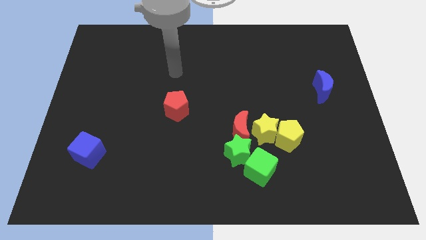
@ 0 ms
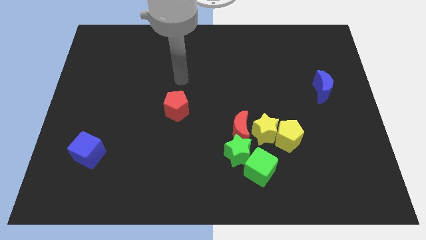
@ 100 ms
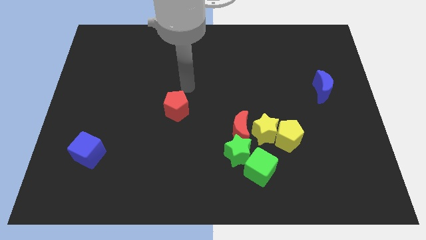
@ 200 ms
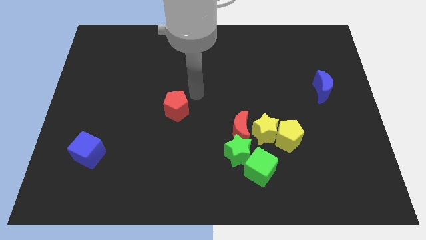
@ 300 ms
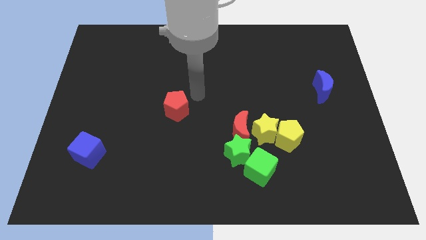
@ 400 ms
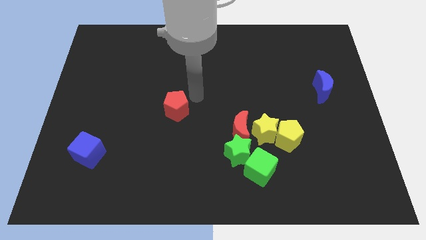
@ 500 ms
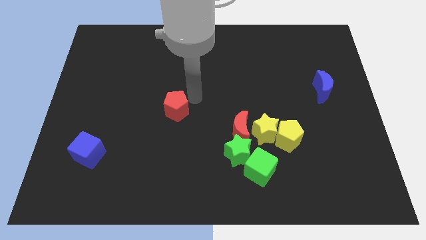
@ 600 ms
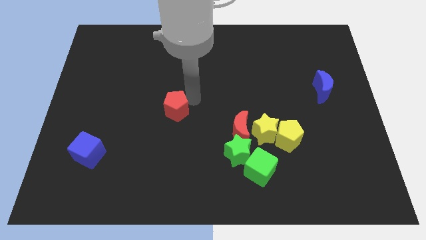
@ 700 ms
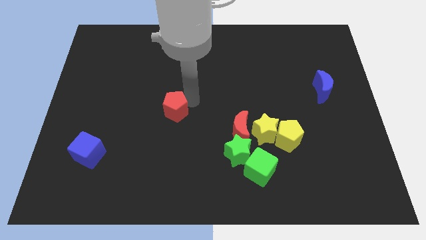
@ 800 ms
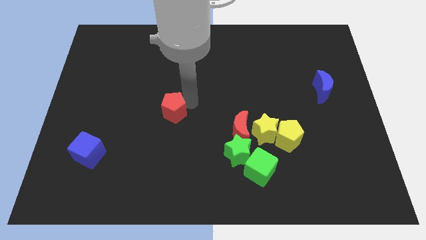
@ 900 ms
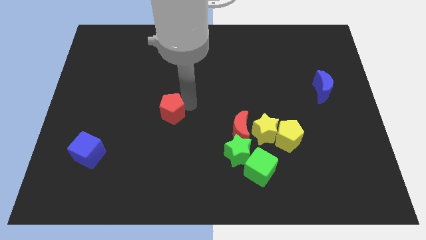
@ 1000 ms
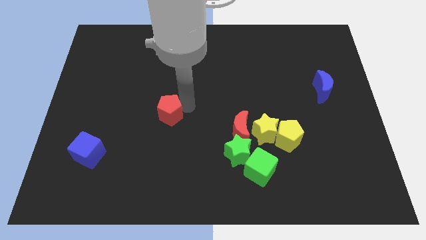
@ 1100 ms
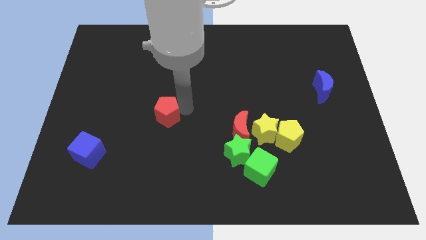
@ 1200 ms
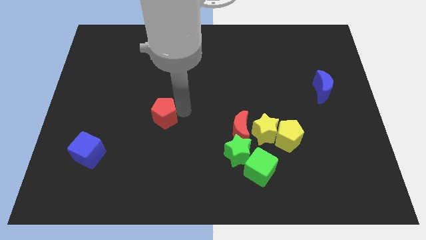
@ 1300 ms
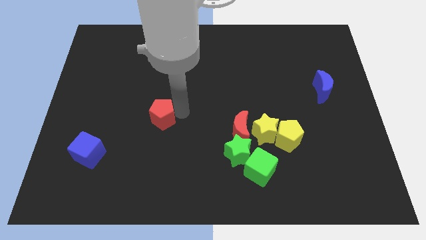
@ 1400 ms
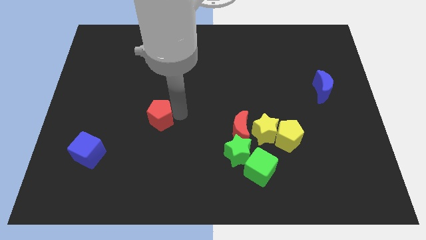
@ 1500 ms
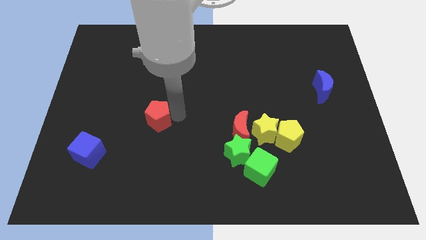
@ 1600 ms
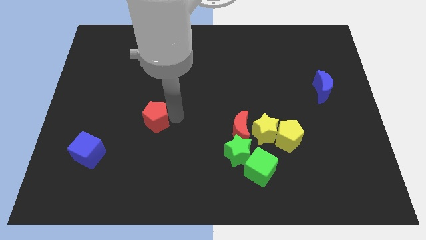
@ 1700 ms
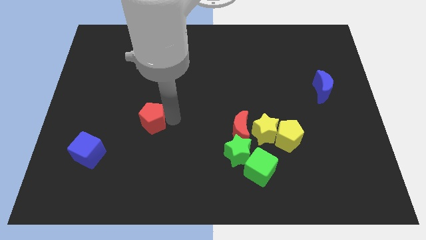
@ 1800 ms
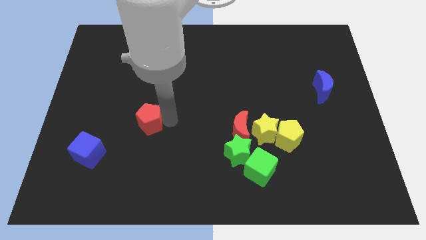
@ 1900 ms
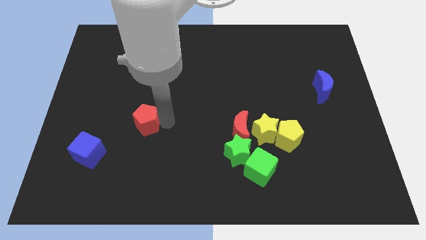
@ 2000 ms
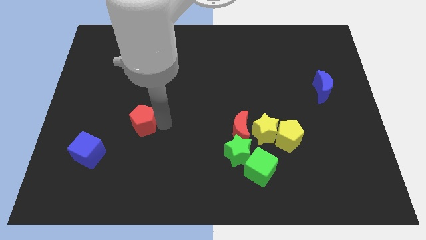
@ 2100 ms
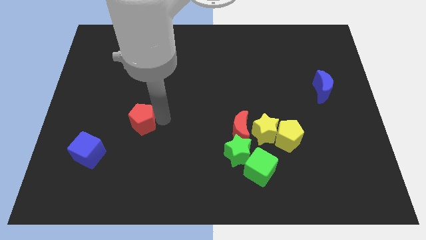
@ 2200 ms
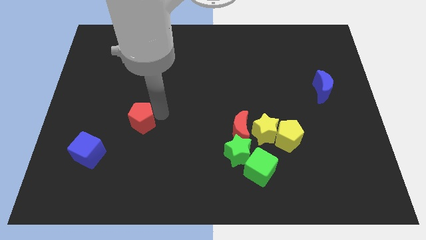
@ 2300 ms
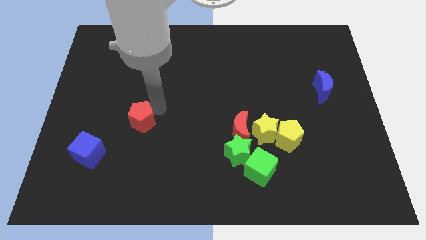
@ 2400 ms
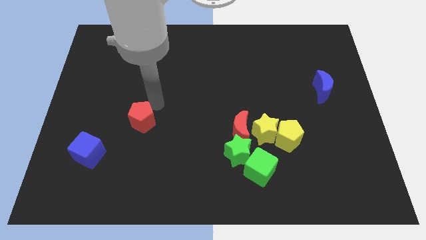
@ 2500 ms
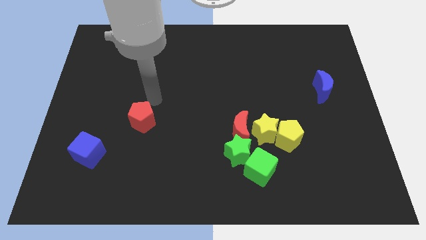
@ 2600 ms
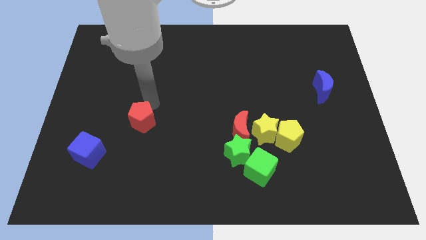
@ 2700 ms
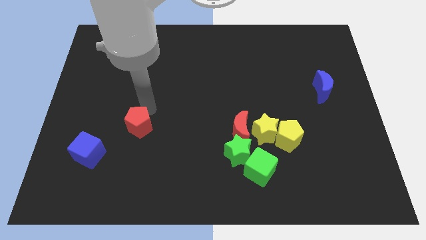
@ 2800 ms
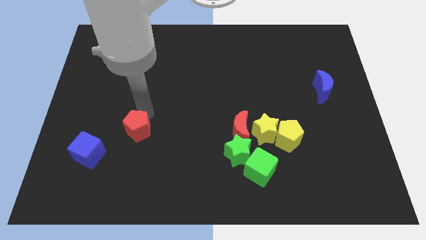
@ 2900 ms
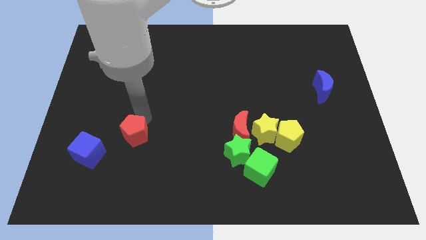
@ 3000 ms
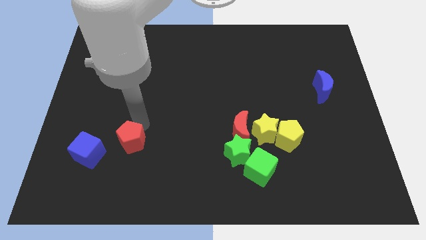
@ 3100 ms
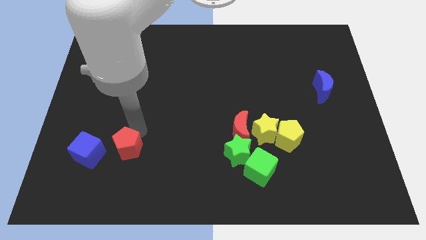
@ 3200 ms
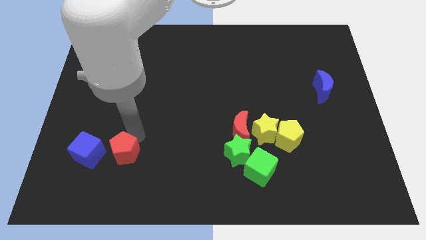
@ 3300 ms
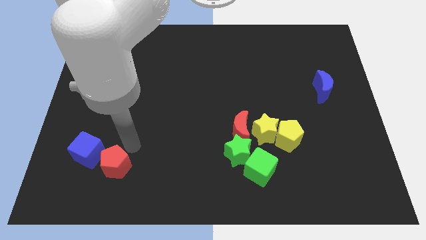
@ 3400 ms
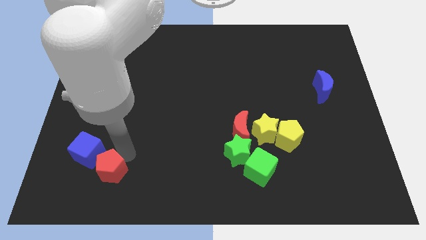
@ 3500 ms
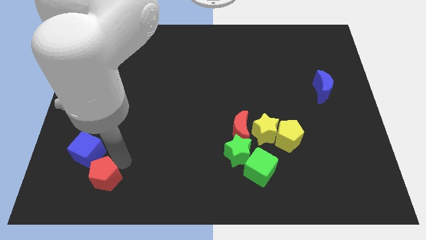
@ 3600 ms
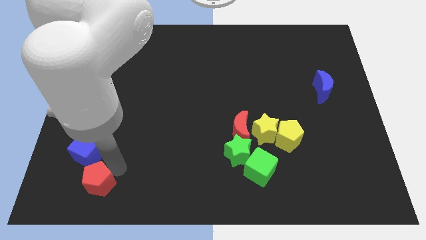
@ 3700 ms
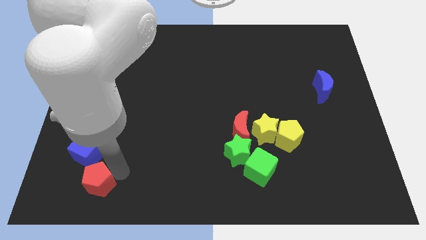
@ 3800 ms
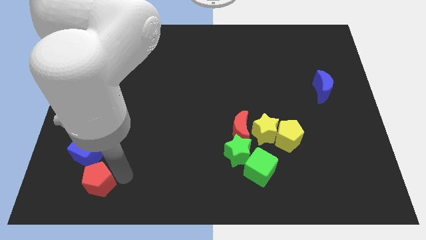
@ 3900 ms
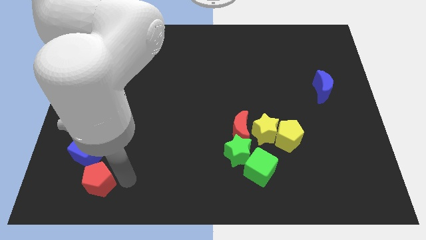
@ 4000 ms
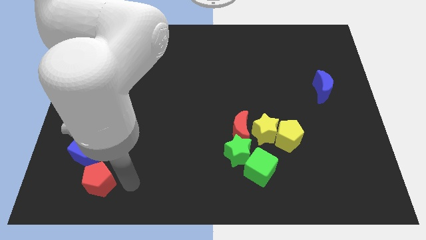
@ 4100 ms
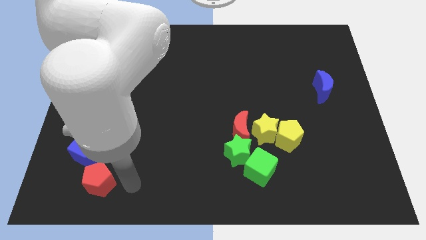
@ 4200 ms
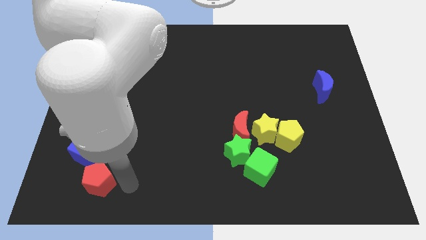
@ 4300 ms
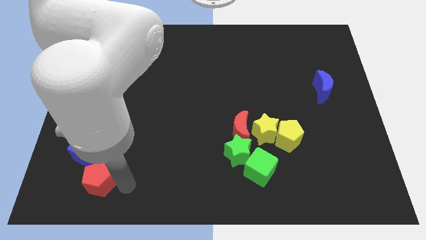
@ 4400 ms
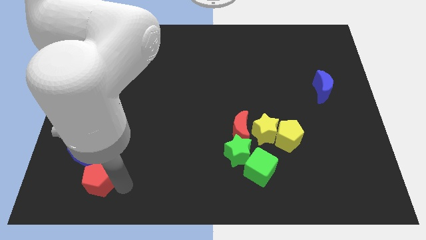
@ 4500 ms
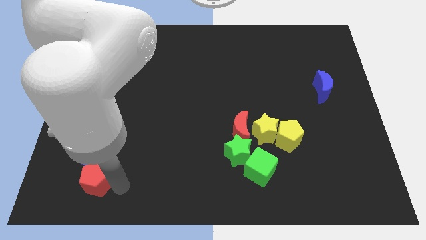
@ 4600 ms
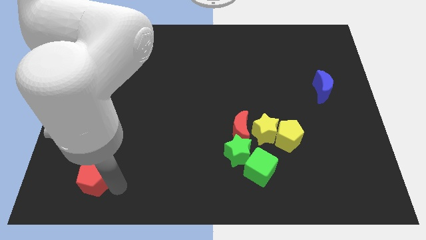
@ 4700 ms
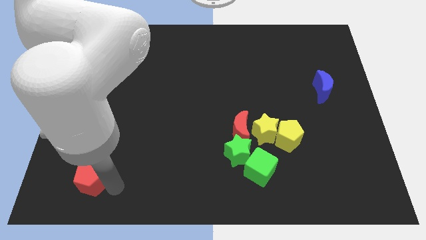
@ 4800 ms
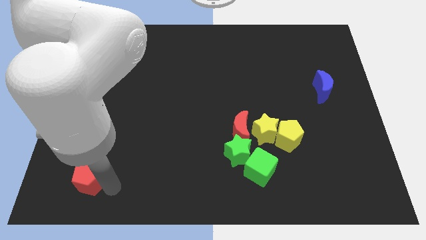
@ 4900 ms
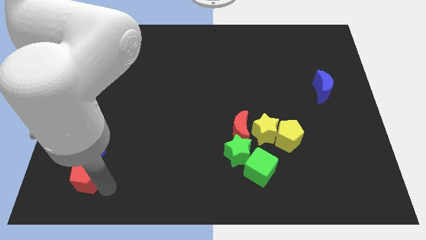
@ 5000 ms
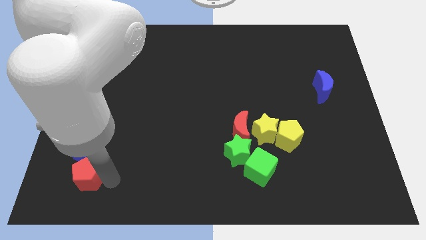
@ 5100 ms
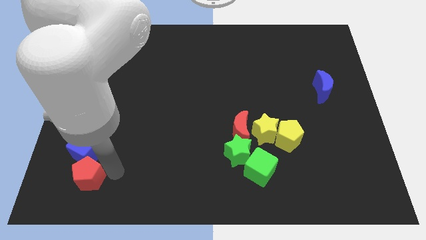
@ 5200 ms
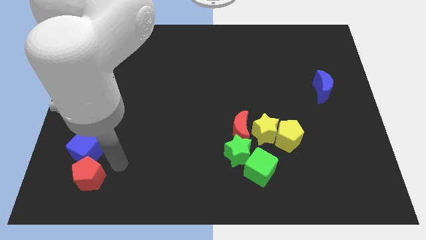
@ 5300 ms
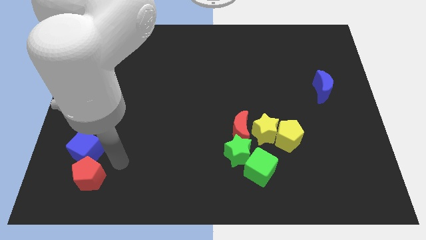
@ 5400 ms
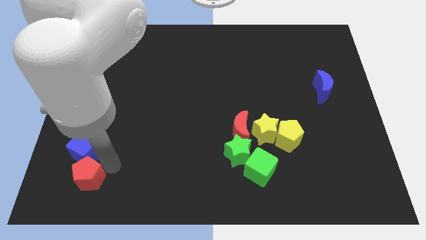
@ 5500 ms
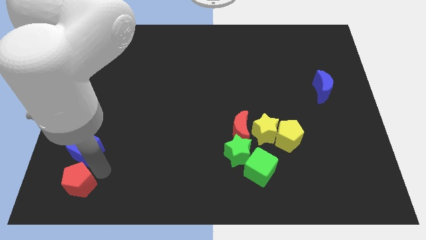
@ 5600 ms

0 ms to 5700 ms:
push the red pentagon to the bottom left

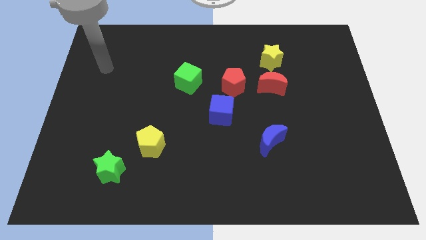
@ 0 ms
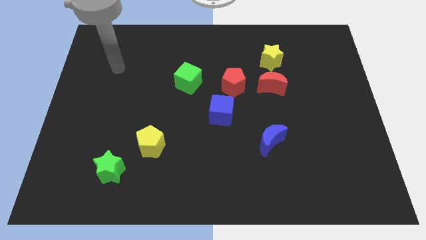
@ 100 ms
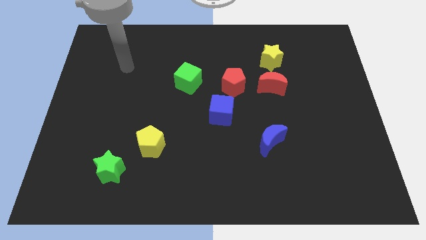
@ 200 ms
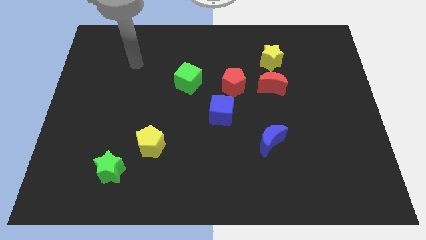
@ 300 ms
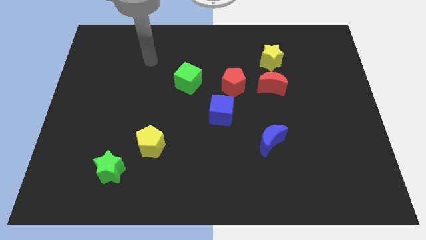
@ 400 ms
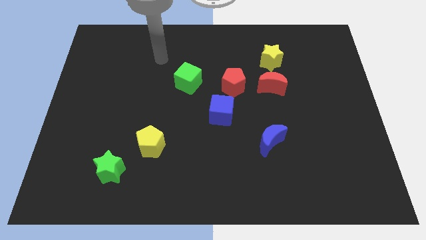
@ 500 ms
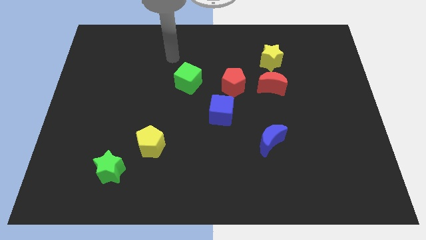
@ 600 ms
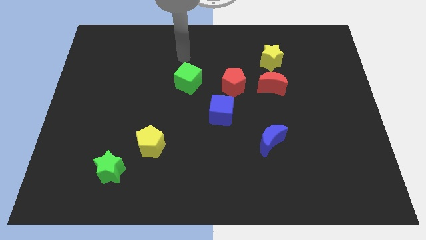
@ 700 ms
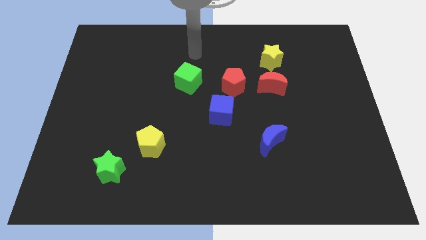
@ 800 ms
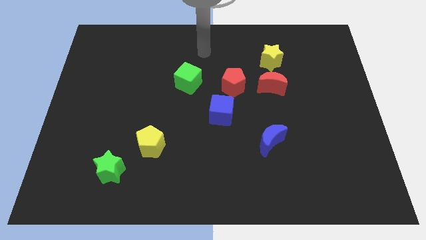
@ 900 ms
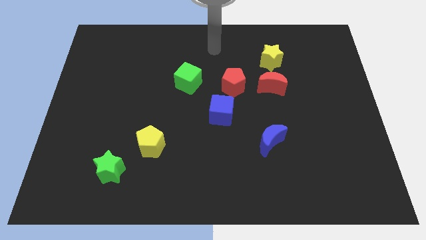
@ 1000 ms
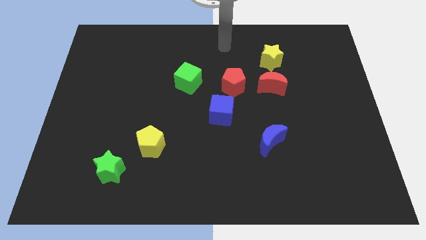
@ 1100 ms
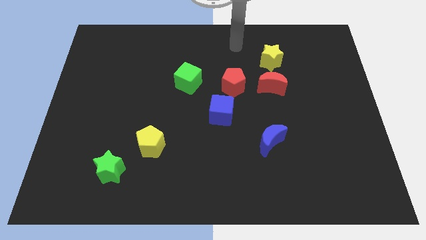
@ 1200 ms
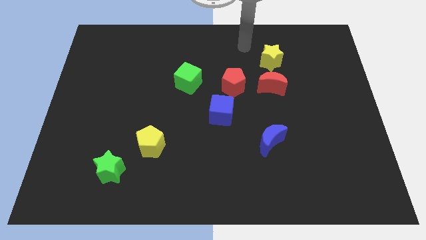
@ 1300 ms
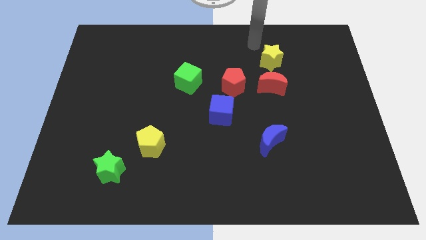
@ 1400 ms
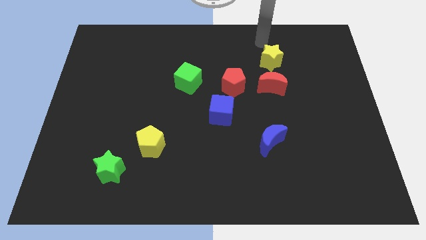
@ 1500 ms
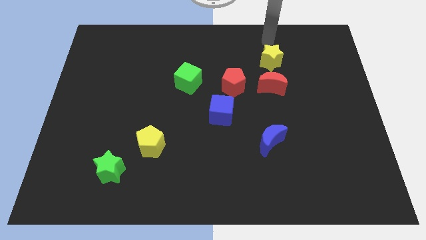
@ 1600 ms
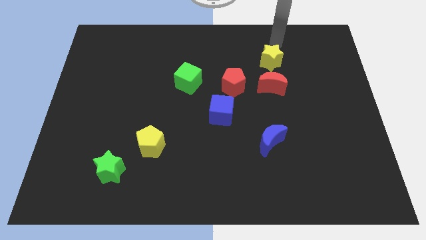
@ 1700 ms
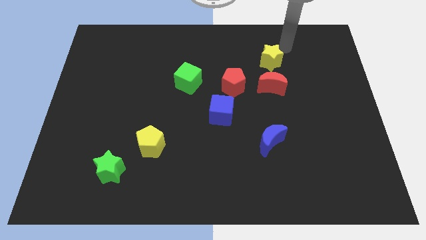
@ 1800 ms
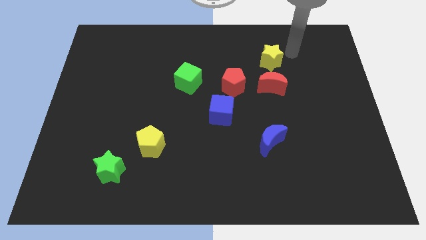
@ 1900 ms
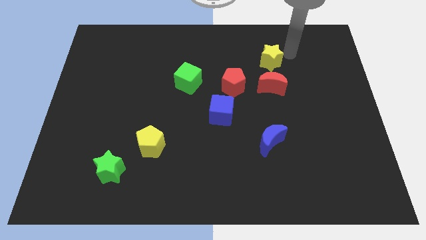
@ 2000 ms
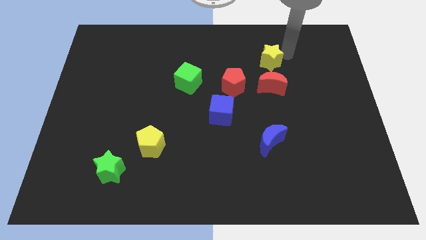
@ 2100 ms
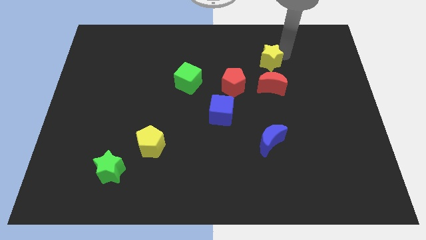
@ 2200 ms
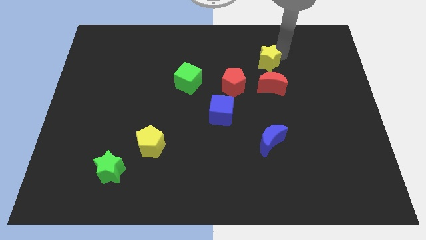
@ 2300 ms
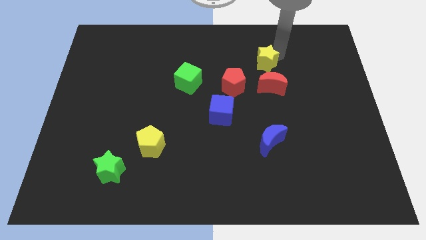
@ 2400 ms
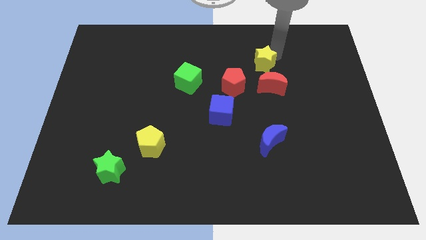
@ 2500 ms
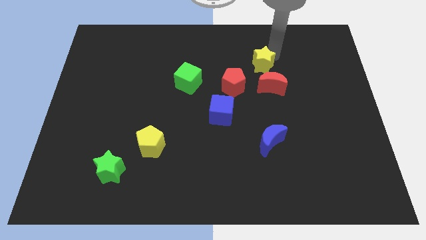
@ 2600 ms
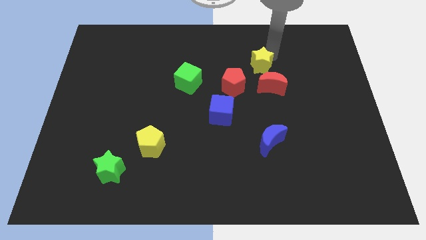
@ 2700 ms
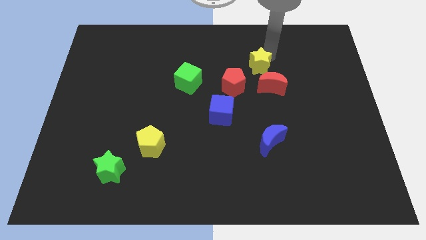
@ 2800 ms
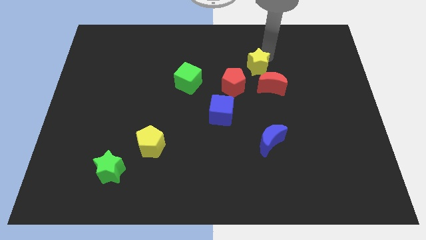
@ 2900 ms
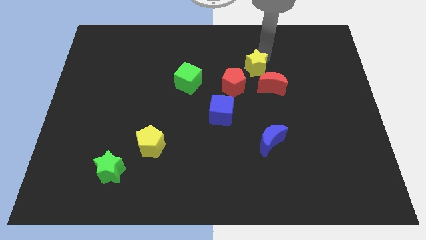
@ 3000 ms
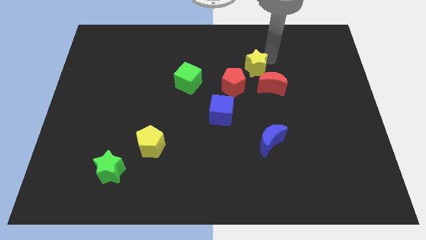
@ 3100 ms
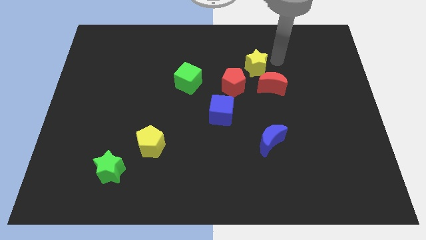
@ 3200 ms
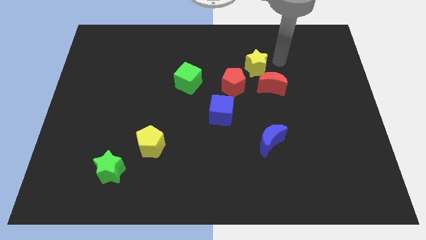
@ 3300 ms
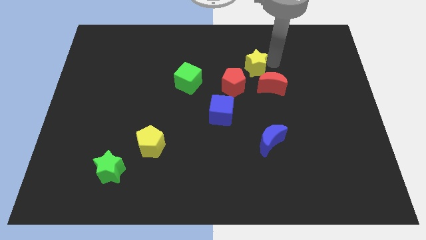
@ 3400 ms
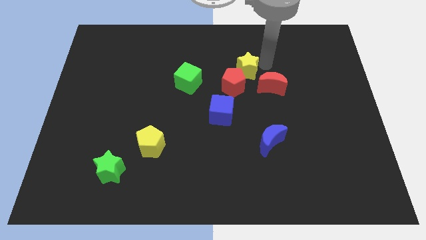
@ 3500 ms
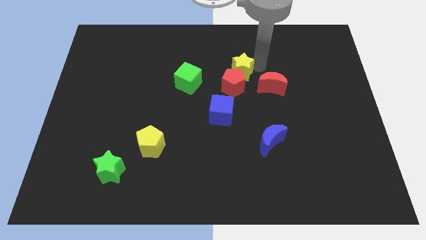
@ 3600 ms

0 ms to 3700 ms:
slide the yellow star to the center of the board
